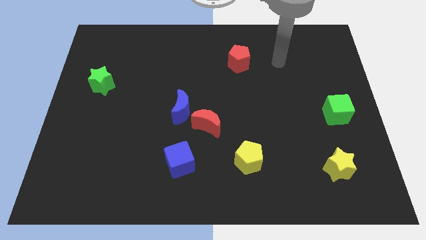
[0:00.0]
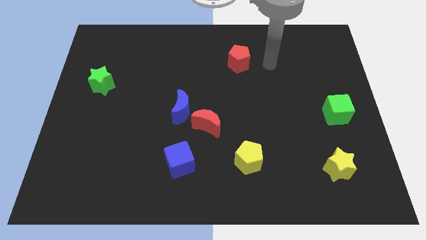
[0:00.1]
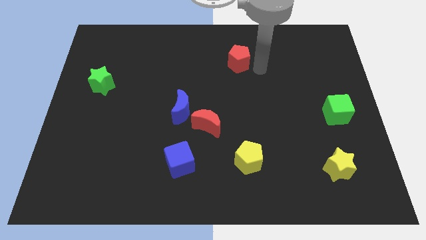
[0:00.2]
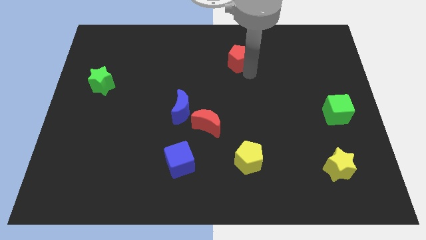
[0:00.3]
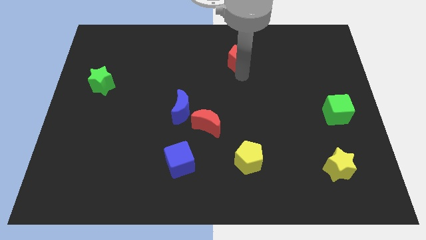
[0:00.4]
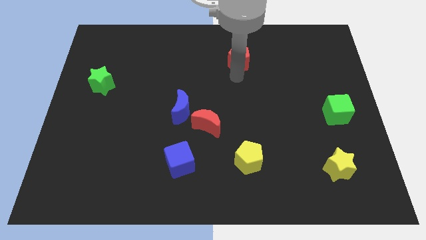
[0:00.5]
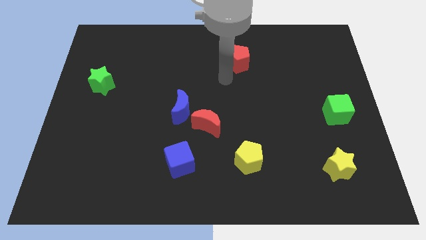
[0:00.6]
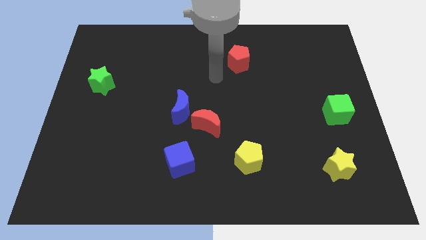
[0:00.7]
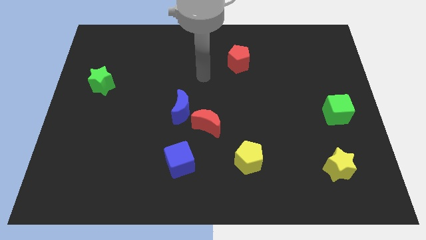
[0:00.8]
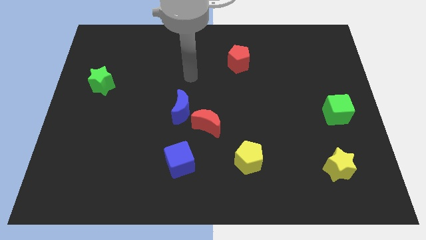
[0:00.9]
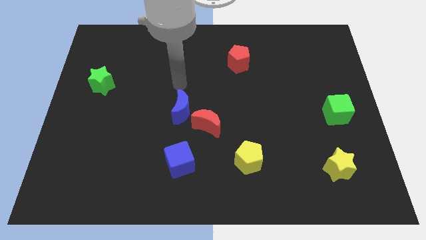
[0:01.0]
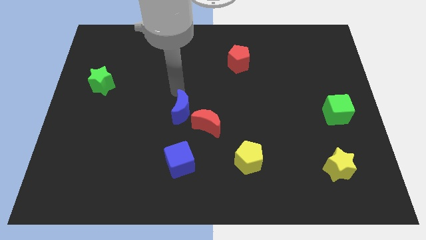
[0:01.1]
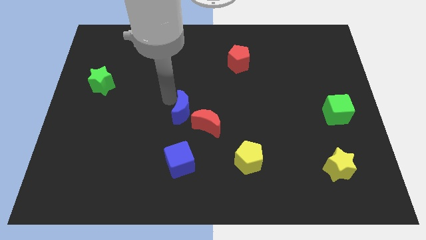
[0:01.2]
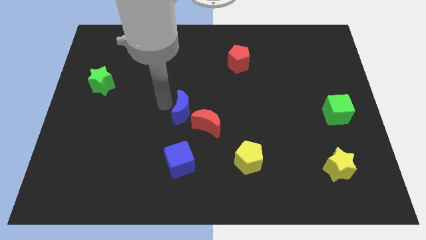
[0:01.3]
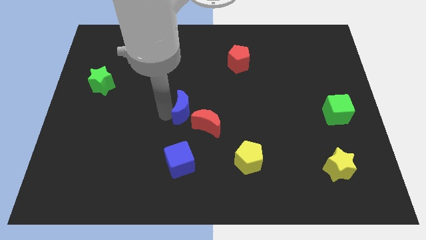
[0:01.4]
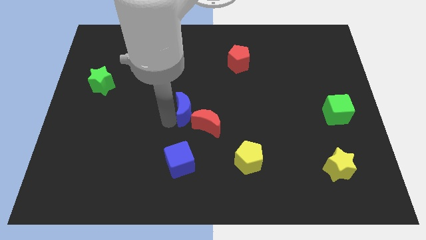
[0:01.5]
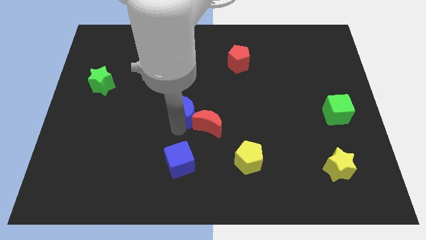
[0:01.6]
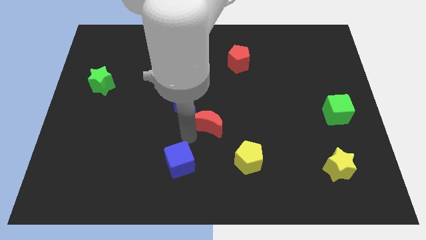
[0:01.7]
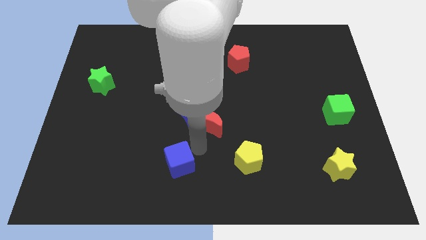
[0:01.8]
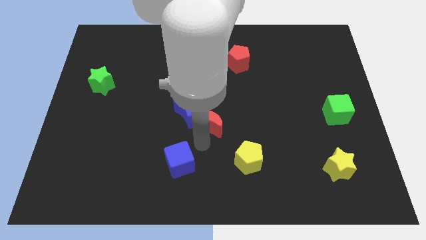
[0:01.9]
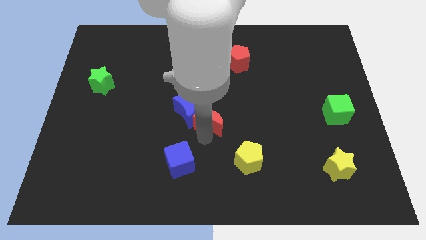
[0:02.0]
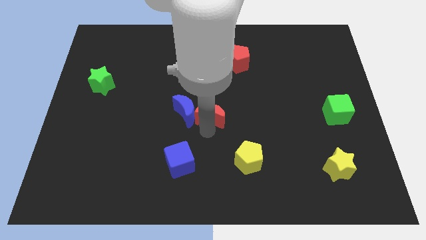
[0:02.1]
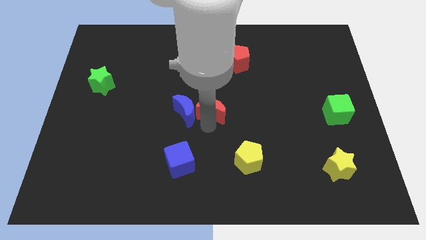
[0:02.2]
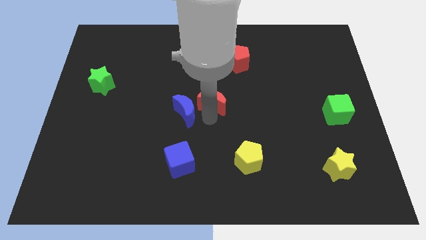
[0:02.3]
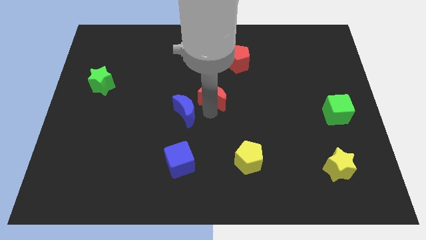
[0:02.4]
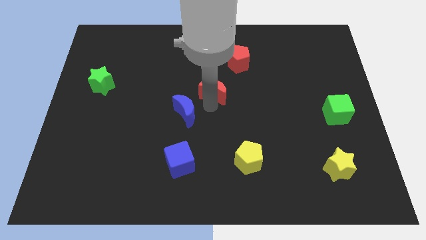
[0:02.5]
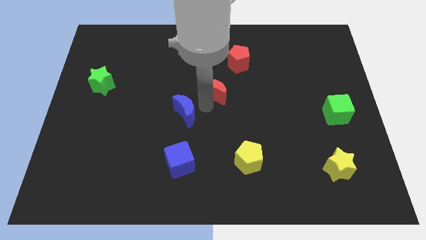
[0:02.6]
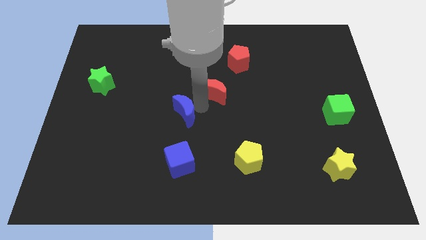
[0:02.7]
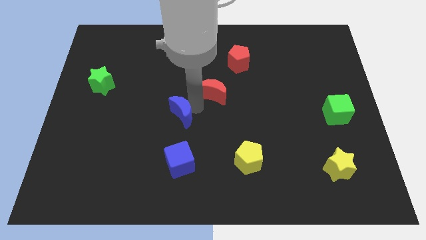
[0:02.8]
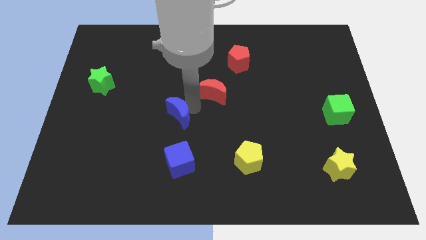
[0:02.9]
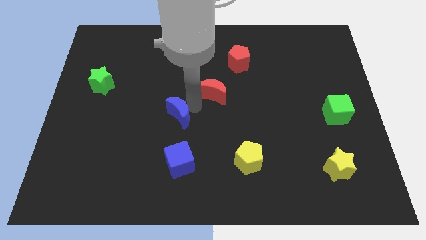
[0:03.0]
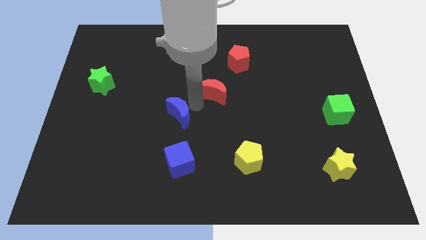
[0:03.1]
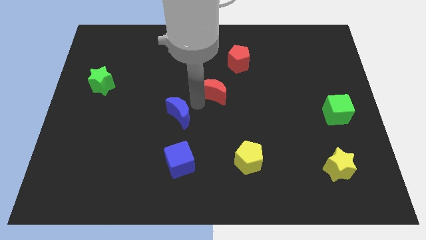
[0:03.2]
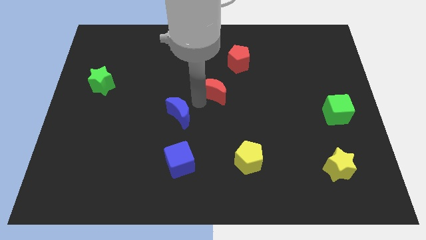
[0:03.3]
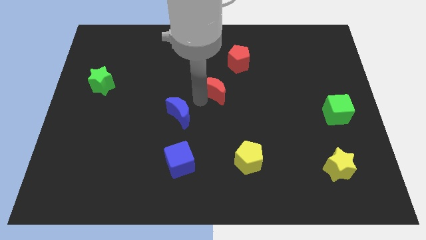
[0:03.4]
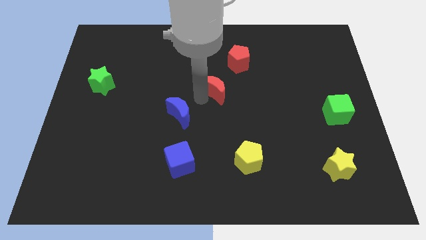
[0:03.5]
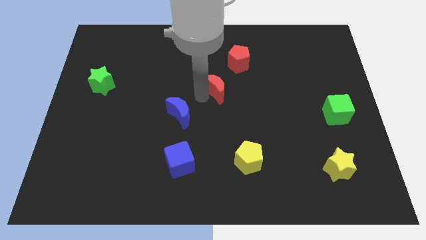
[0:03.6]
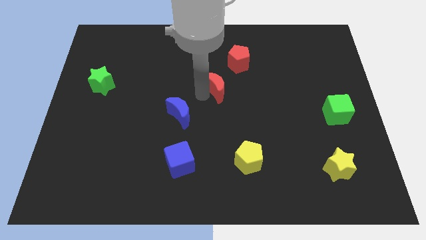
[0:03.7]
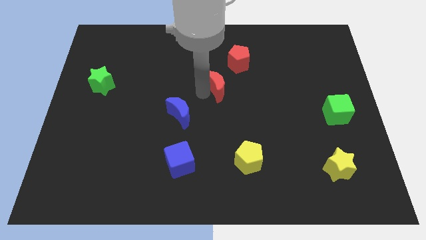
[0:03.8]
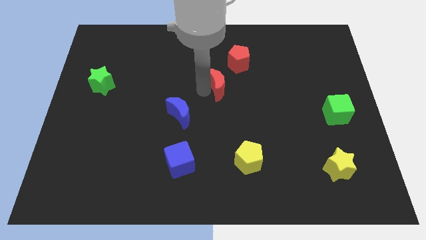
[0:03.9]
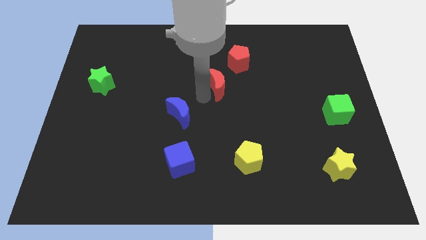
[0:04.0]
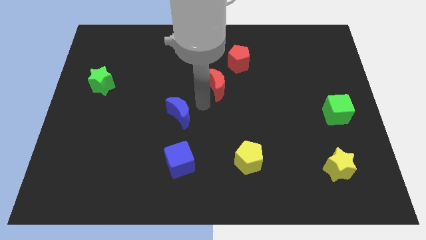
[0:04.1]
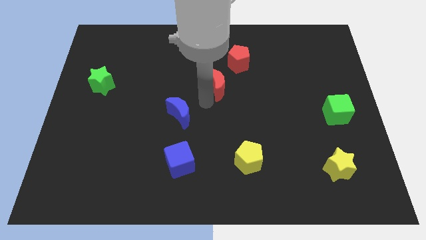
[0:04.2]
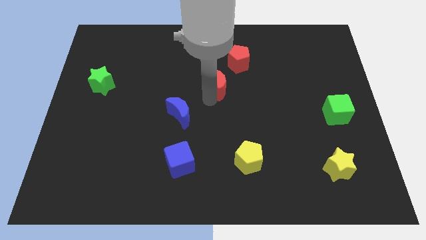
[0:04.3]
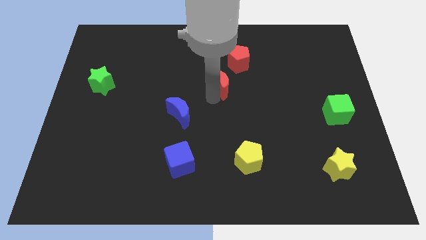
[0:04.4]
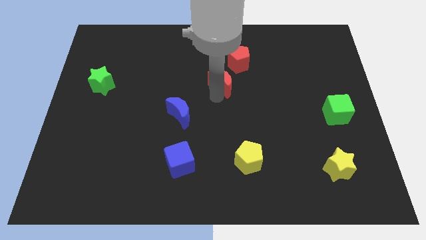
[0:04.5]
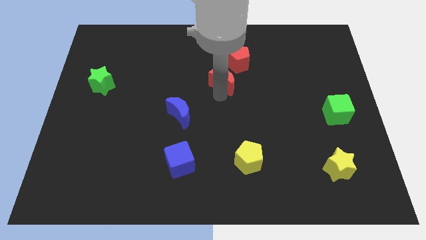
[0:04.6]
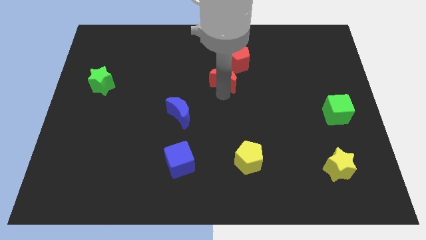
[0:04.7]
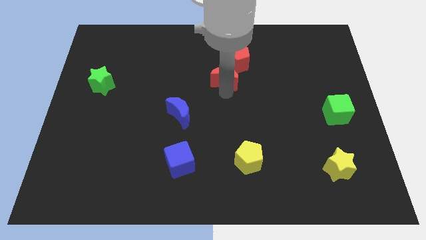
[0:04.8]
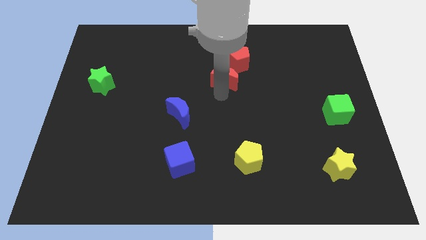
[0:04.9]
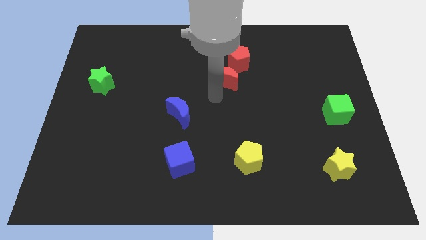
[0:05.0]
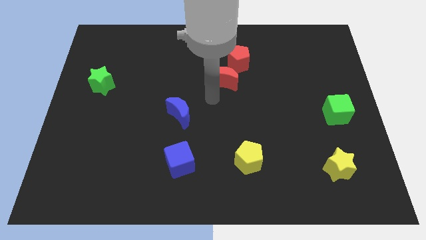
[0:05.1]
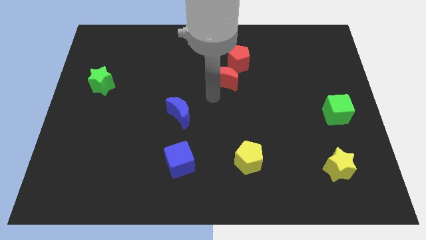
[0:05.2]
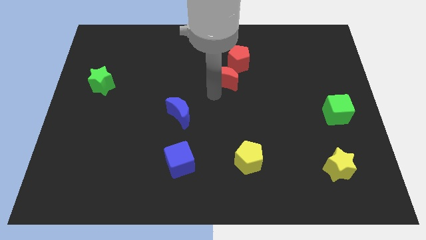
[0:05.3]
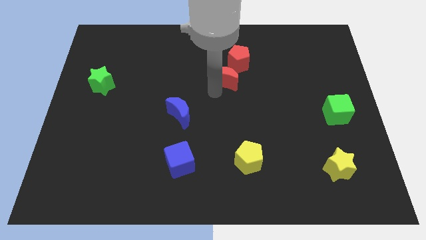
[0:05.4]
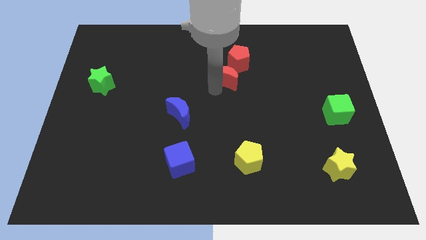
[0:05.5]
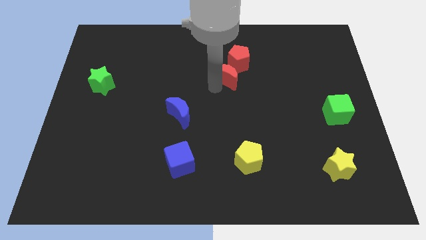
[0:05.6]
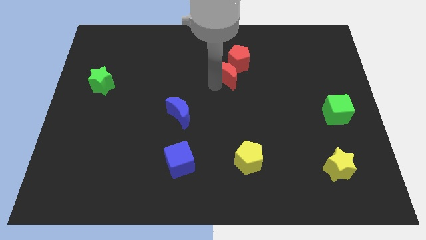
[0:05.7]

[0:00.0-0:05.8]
move the red moon next to the red pentagon

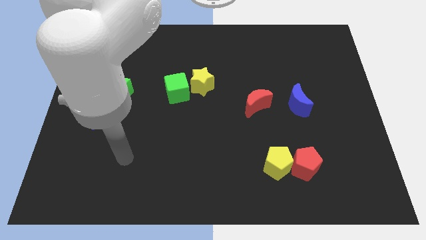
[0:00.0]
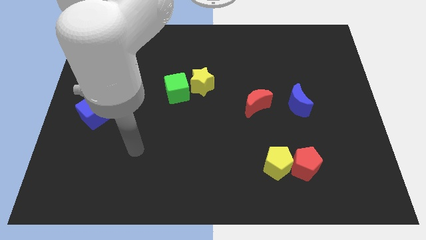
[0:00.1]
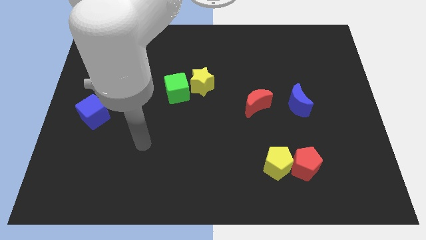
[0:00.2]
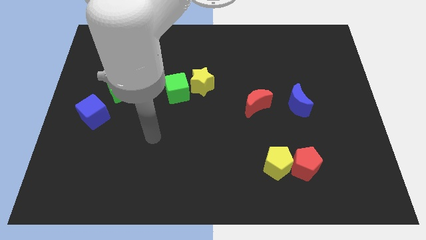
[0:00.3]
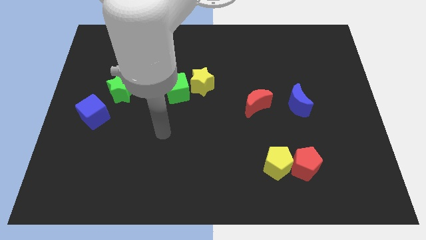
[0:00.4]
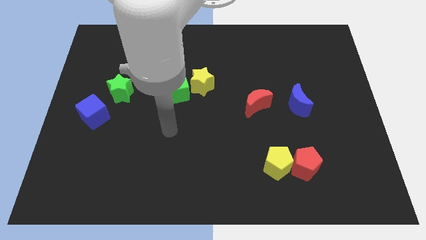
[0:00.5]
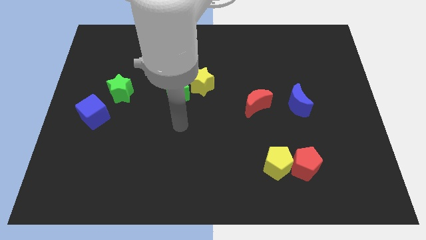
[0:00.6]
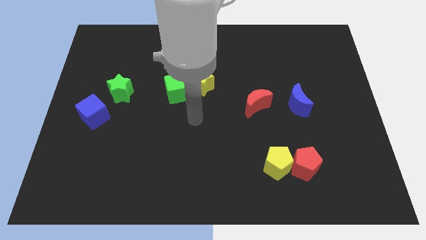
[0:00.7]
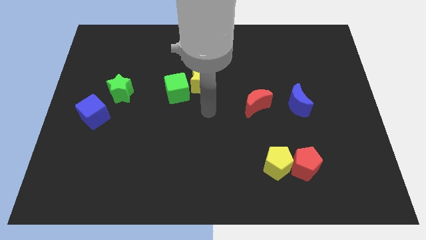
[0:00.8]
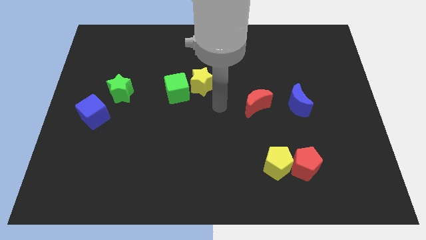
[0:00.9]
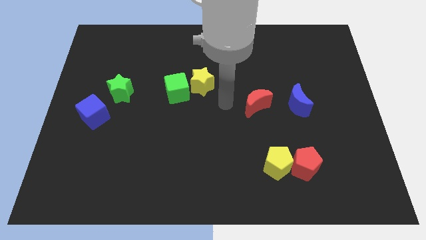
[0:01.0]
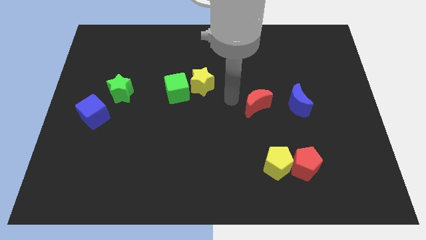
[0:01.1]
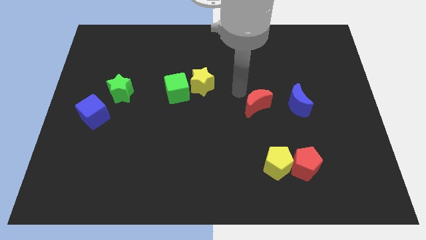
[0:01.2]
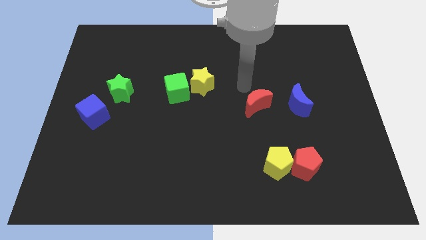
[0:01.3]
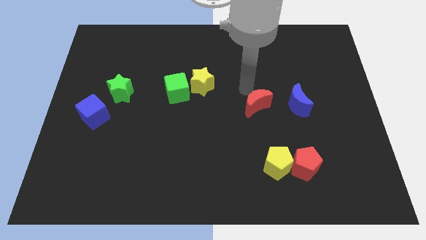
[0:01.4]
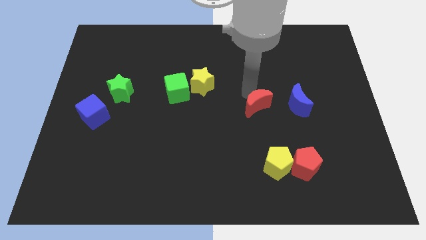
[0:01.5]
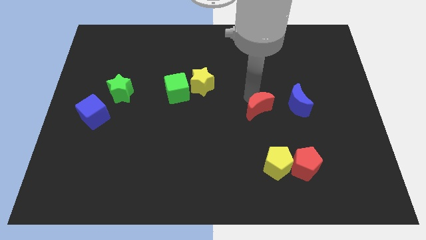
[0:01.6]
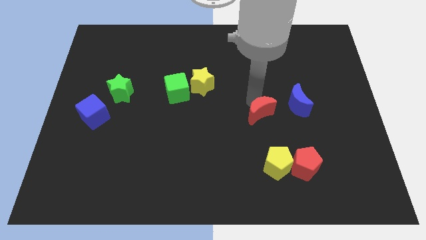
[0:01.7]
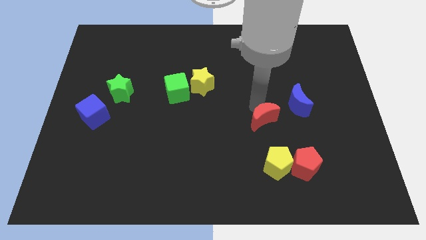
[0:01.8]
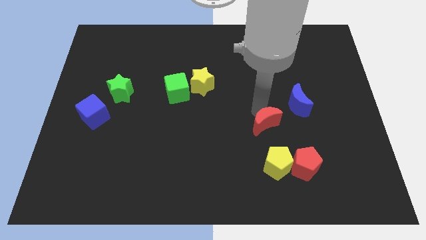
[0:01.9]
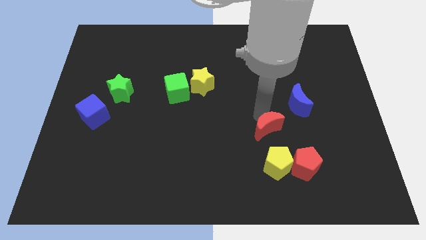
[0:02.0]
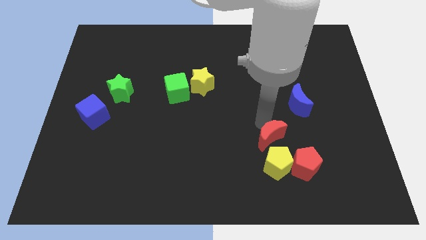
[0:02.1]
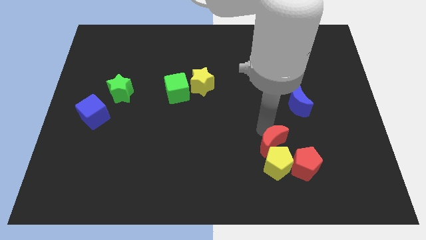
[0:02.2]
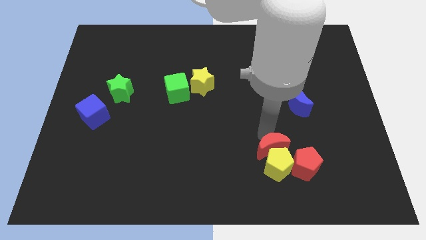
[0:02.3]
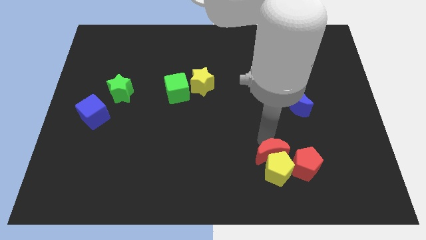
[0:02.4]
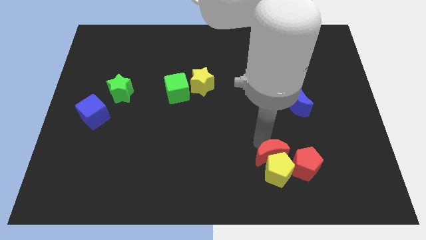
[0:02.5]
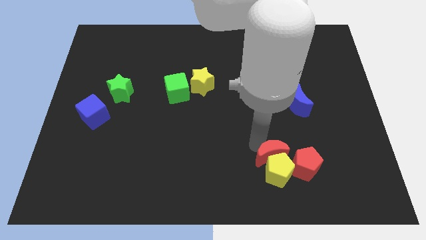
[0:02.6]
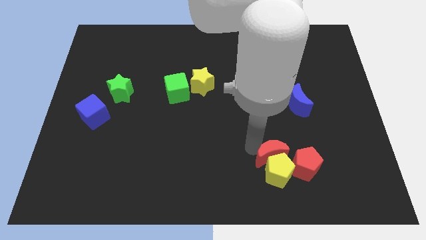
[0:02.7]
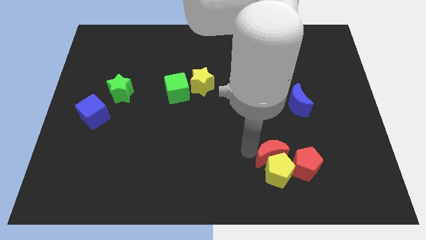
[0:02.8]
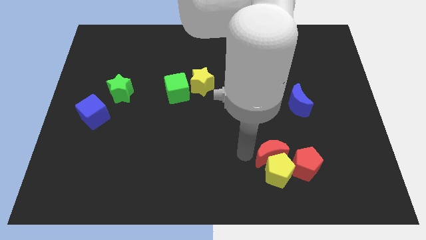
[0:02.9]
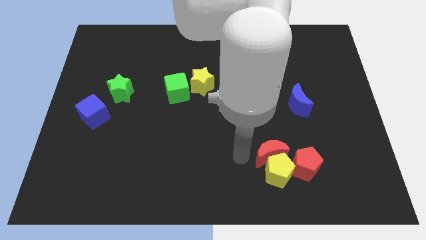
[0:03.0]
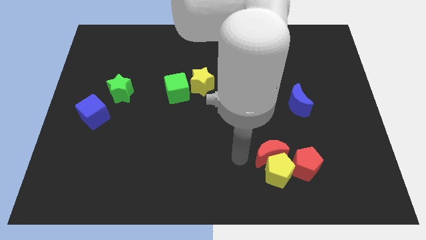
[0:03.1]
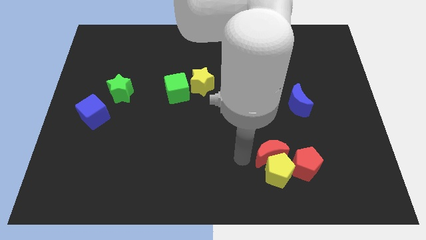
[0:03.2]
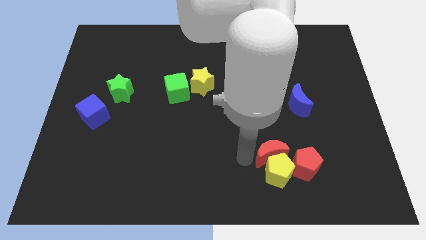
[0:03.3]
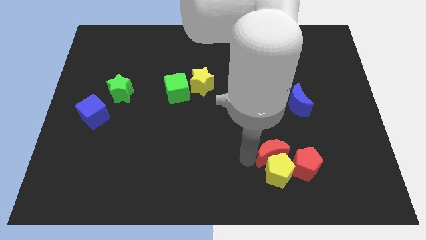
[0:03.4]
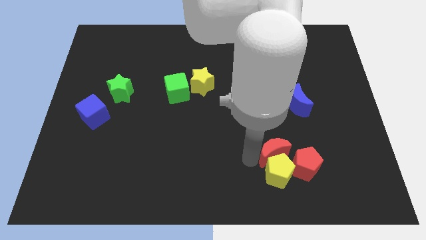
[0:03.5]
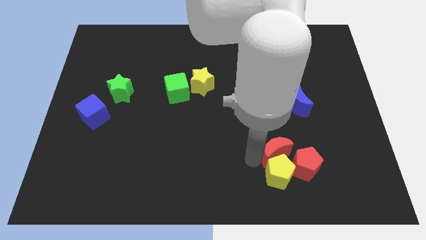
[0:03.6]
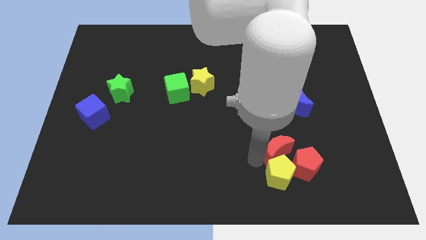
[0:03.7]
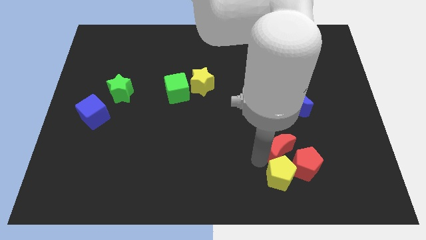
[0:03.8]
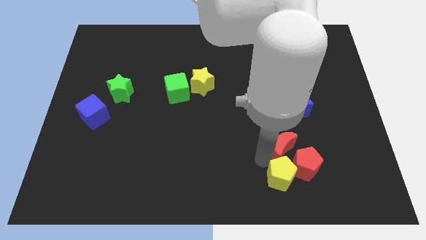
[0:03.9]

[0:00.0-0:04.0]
put the red moon next to the red pentagon
